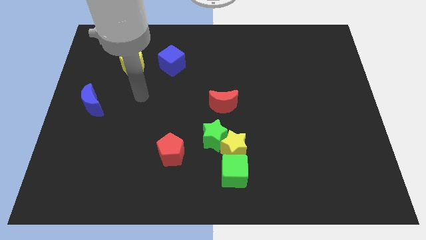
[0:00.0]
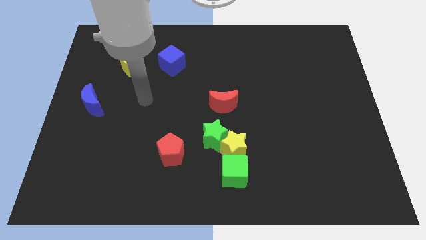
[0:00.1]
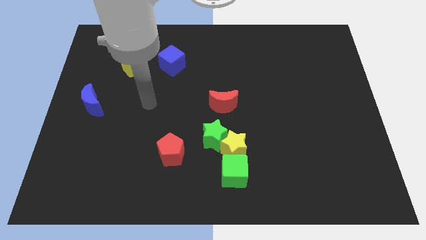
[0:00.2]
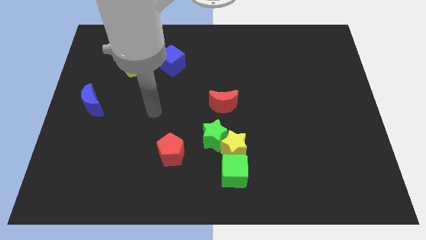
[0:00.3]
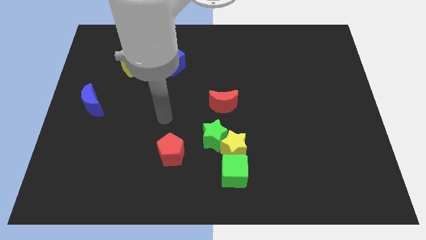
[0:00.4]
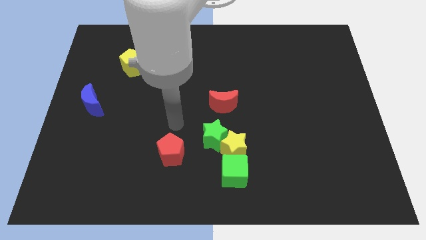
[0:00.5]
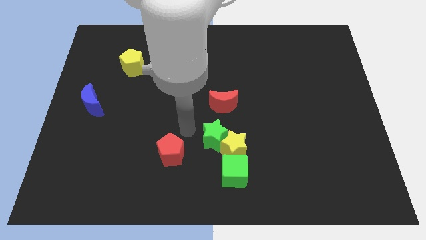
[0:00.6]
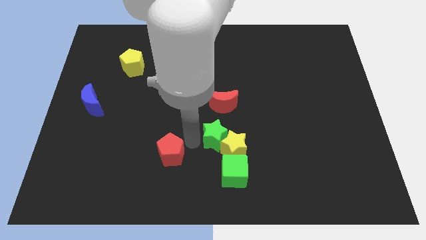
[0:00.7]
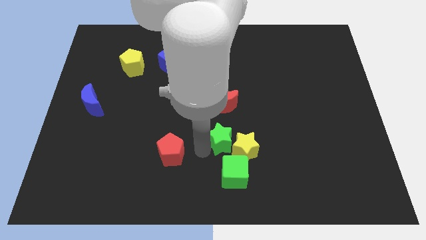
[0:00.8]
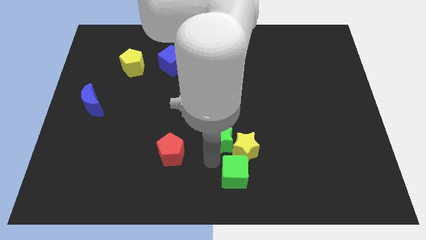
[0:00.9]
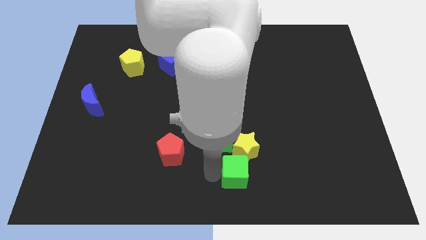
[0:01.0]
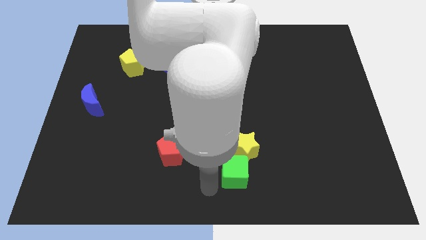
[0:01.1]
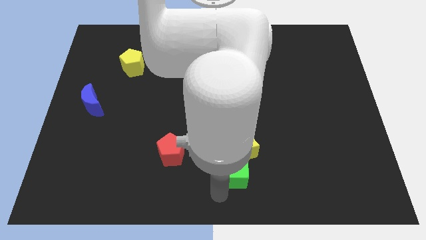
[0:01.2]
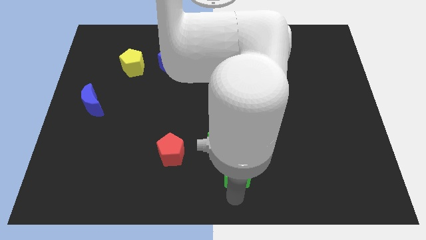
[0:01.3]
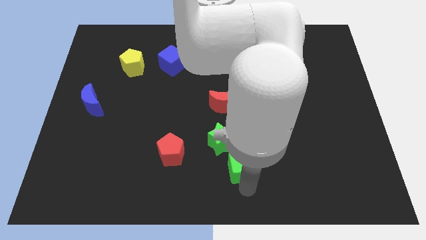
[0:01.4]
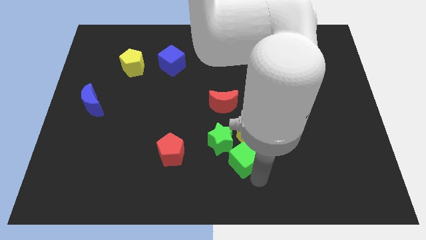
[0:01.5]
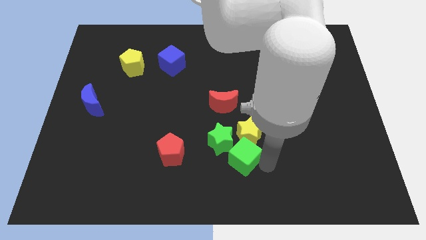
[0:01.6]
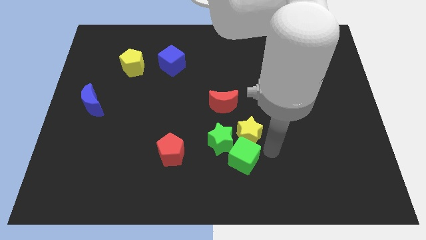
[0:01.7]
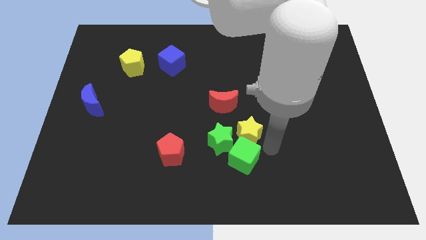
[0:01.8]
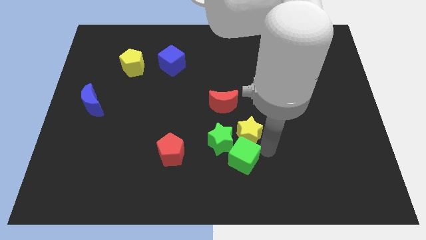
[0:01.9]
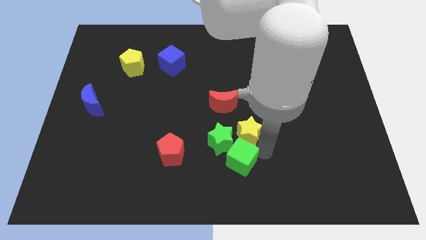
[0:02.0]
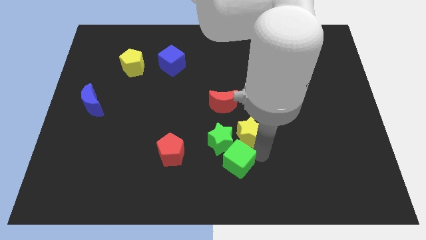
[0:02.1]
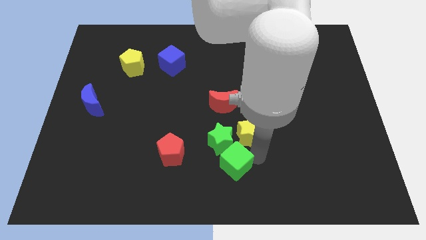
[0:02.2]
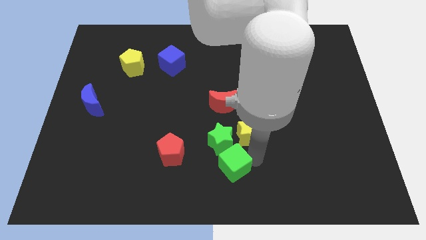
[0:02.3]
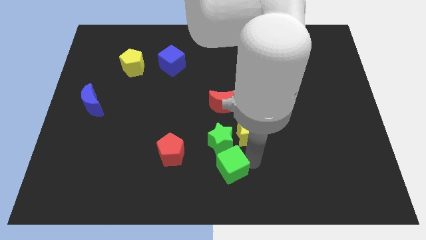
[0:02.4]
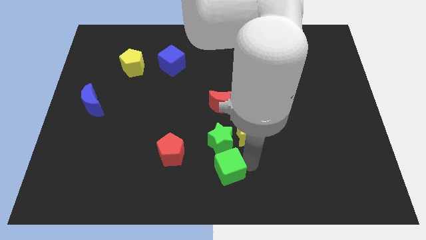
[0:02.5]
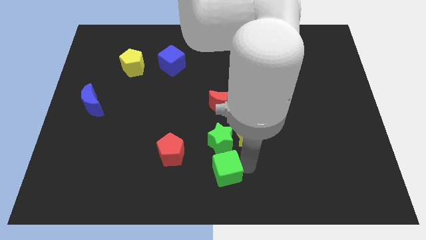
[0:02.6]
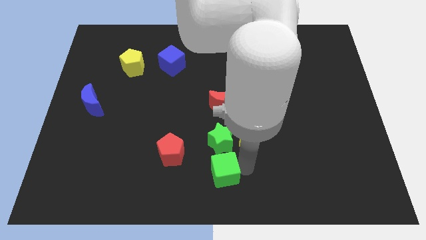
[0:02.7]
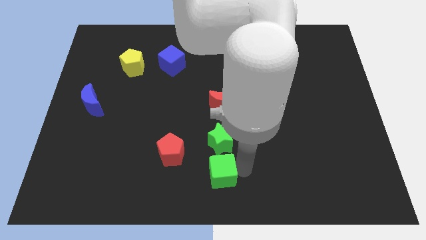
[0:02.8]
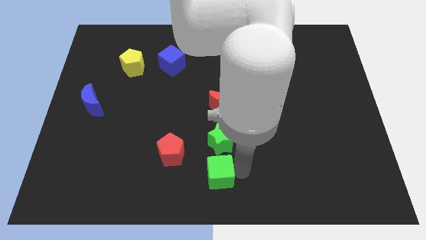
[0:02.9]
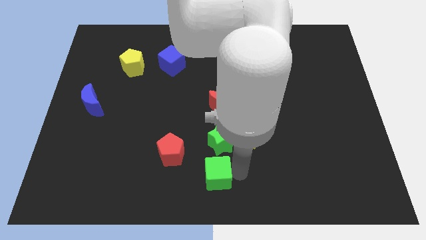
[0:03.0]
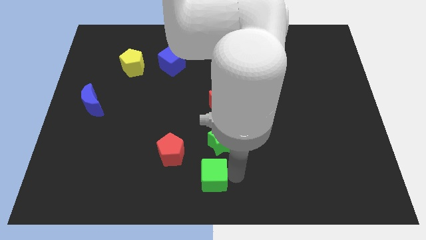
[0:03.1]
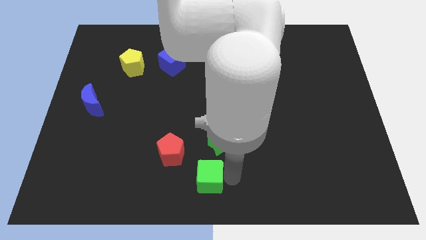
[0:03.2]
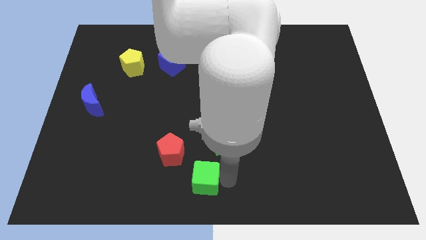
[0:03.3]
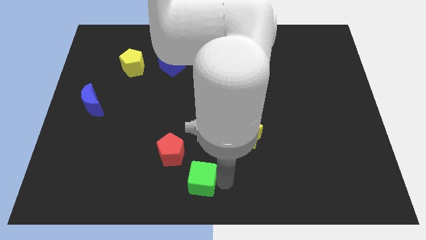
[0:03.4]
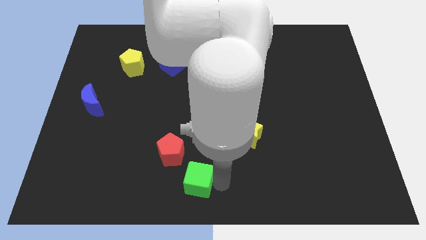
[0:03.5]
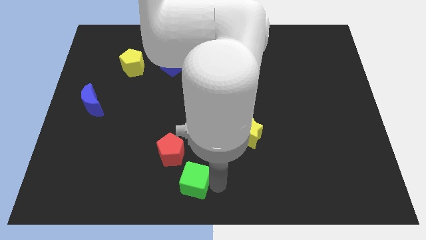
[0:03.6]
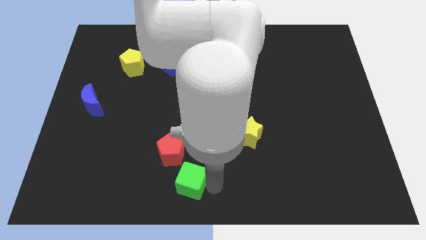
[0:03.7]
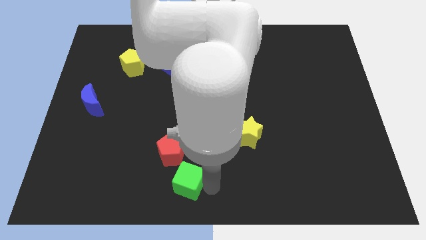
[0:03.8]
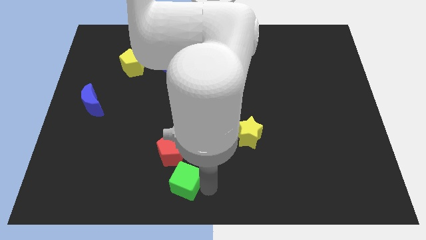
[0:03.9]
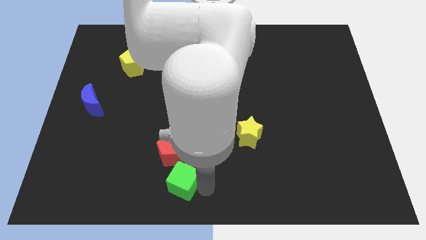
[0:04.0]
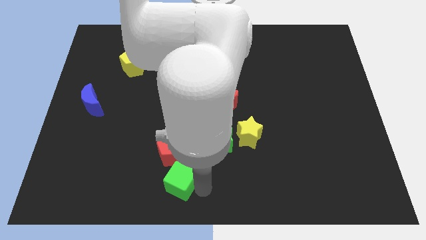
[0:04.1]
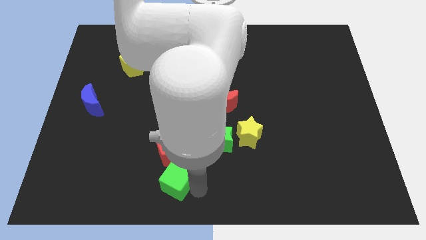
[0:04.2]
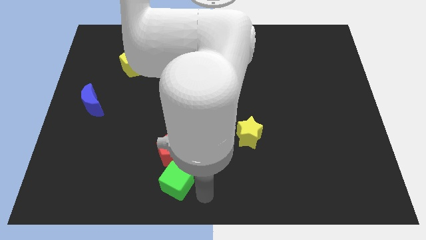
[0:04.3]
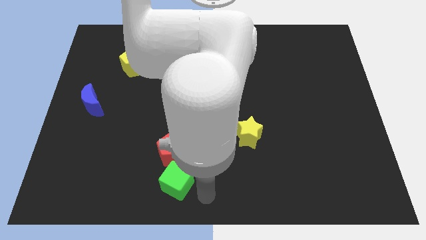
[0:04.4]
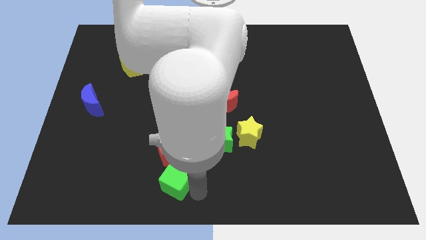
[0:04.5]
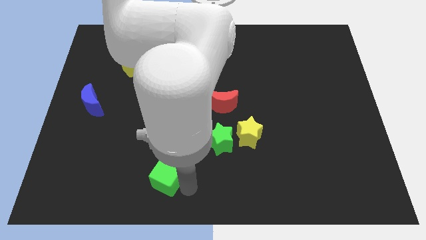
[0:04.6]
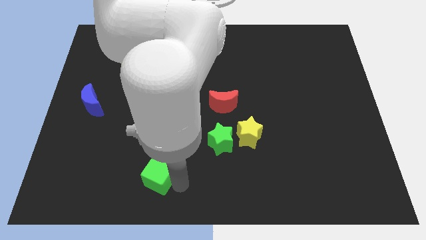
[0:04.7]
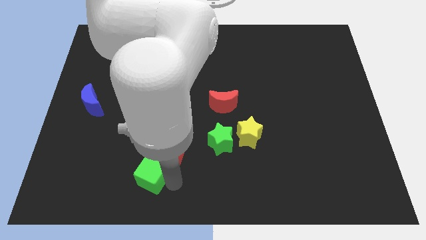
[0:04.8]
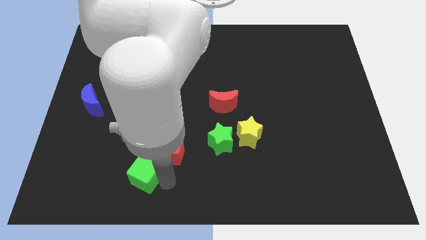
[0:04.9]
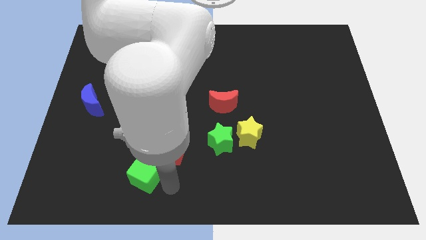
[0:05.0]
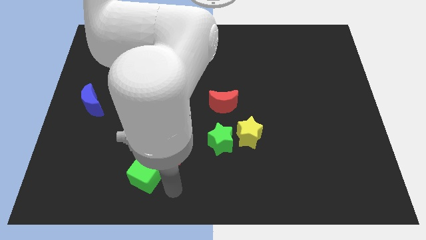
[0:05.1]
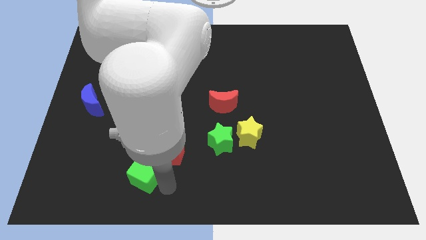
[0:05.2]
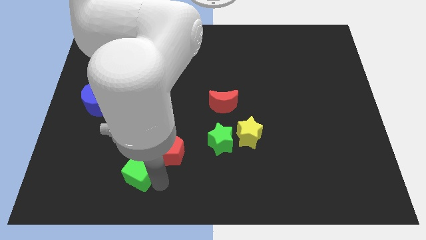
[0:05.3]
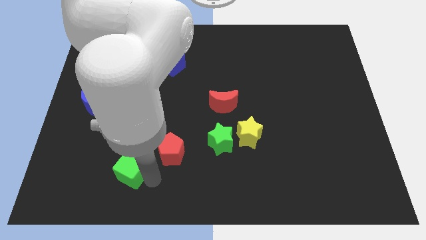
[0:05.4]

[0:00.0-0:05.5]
push the green cube to the left

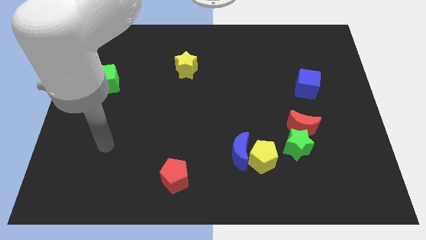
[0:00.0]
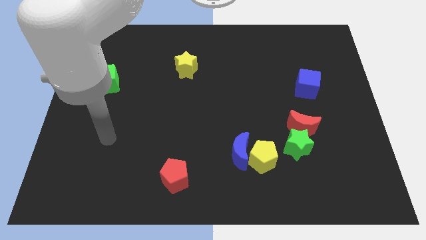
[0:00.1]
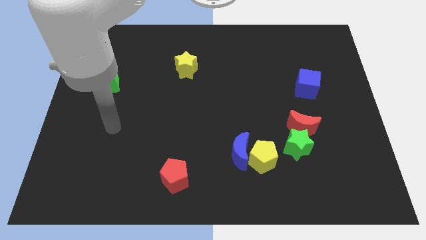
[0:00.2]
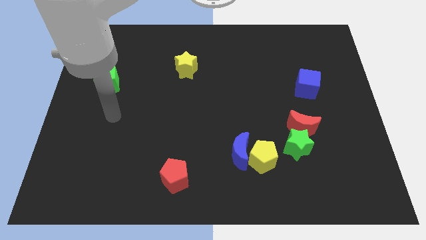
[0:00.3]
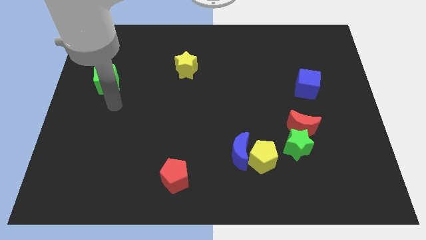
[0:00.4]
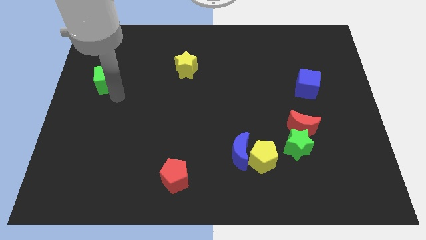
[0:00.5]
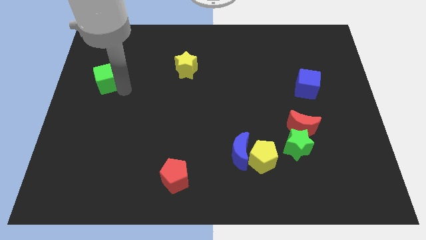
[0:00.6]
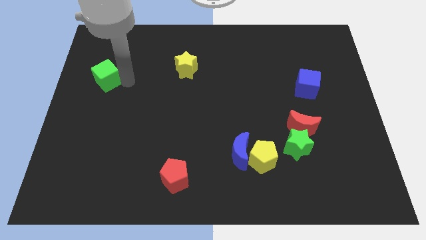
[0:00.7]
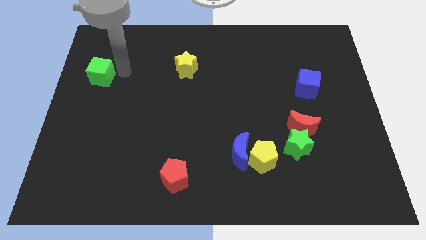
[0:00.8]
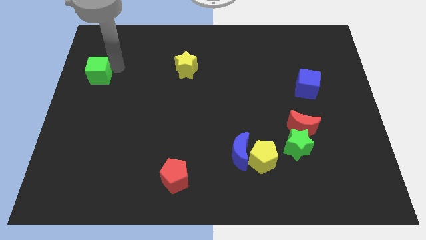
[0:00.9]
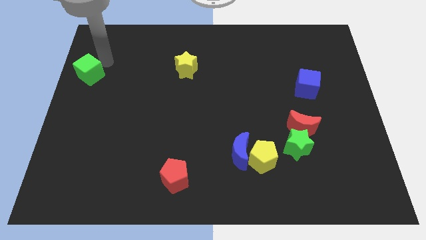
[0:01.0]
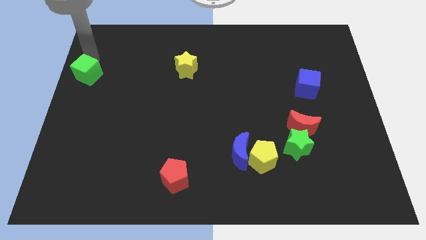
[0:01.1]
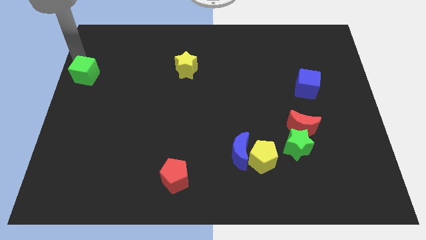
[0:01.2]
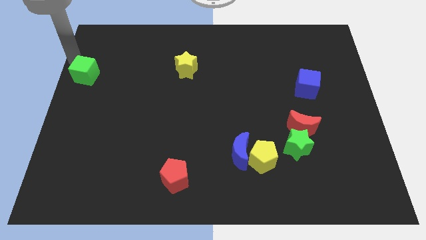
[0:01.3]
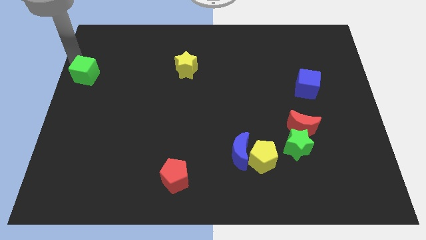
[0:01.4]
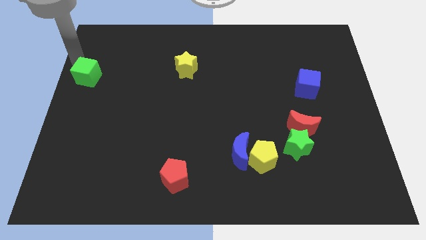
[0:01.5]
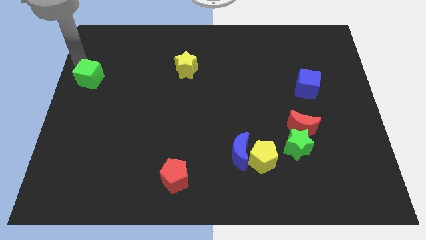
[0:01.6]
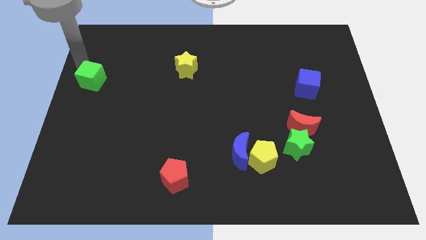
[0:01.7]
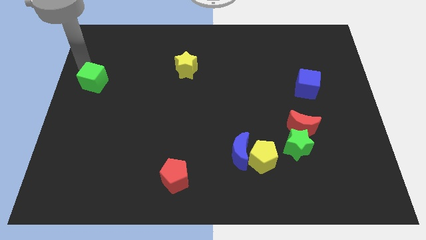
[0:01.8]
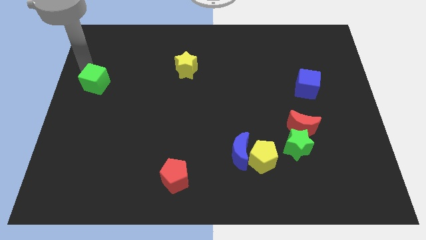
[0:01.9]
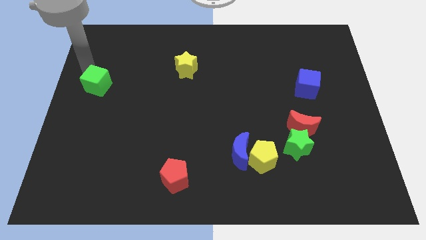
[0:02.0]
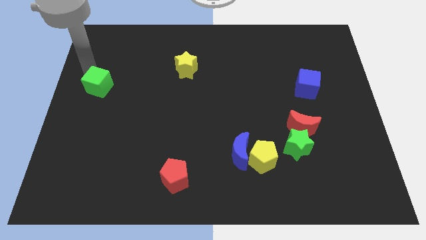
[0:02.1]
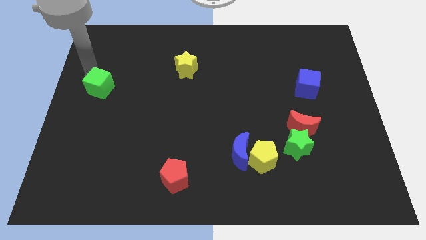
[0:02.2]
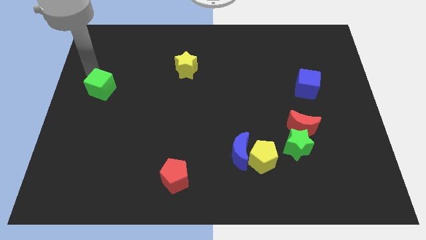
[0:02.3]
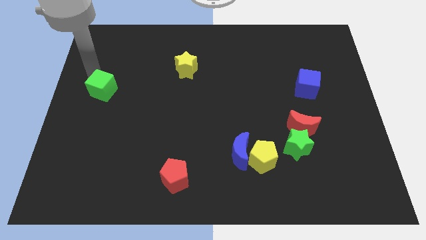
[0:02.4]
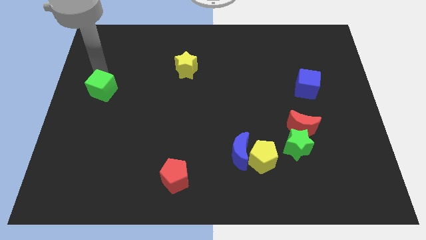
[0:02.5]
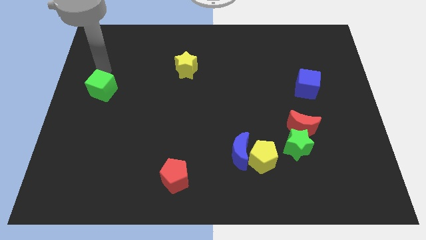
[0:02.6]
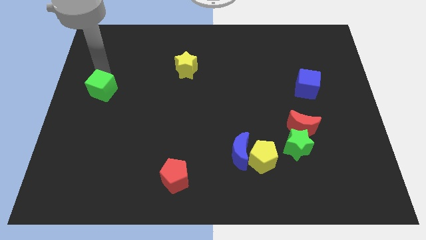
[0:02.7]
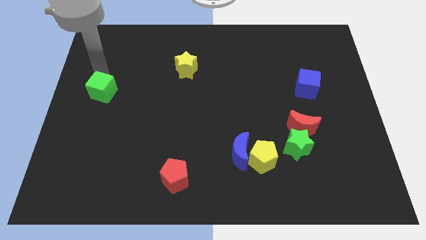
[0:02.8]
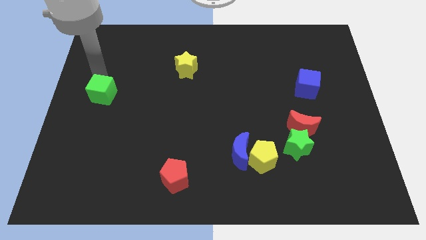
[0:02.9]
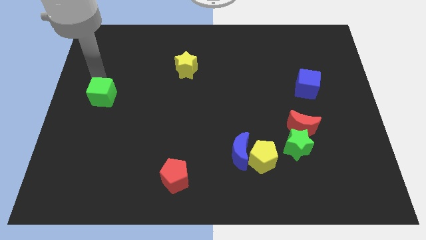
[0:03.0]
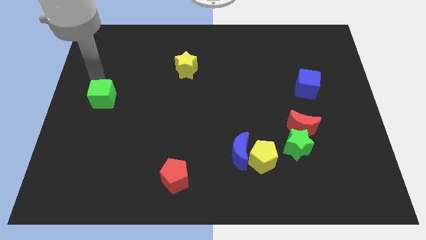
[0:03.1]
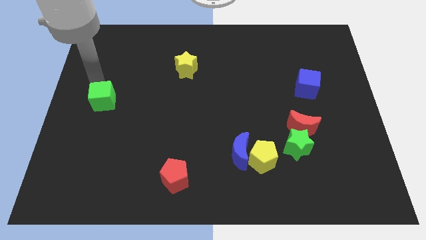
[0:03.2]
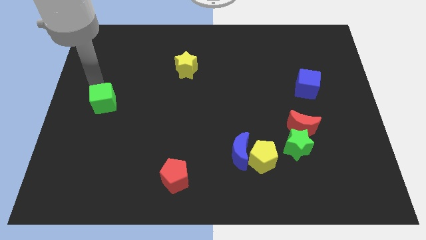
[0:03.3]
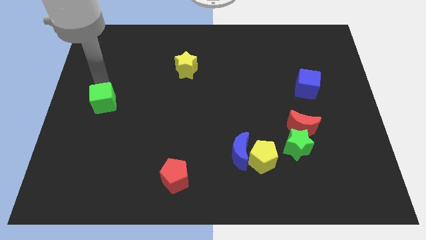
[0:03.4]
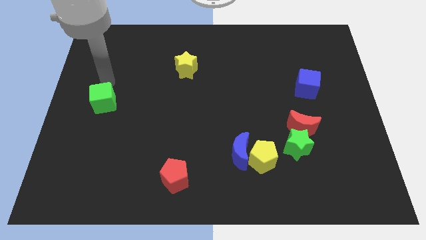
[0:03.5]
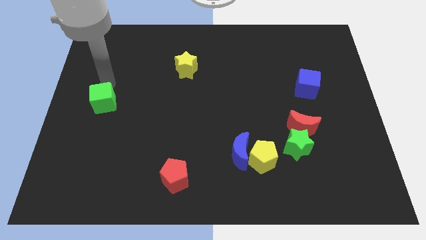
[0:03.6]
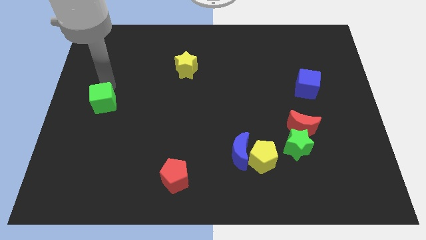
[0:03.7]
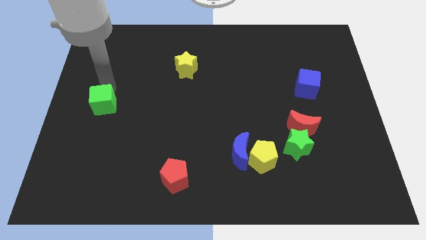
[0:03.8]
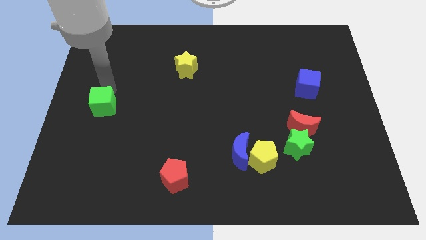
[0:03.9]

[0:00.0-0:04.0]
move the green cube downwards a little bit
